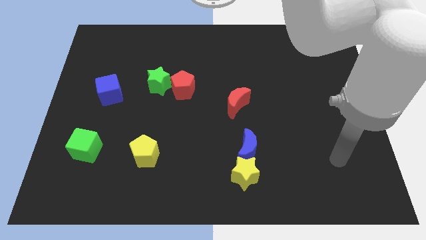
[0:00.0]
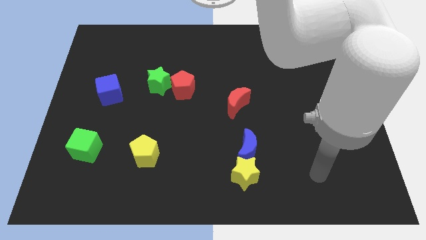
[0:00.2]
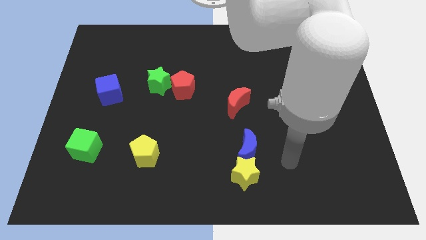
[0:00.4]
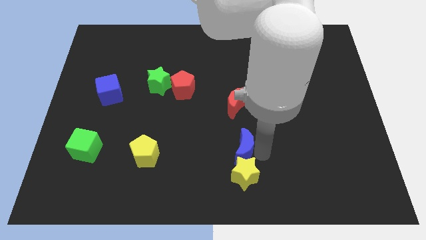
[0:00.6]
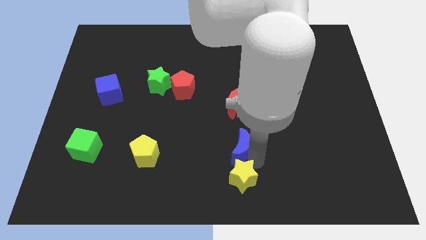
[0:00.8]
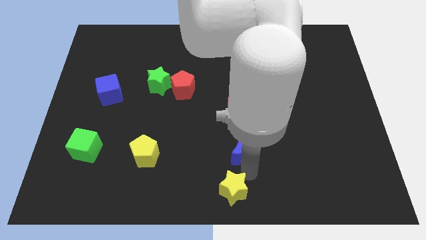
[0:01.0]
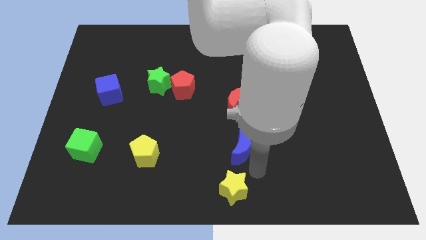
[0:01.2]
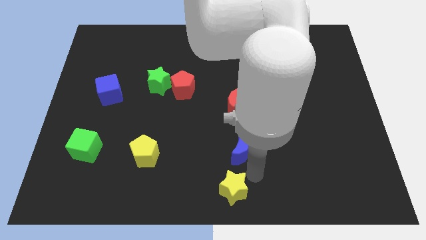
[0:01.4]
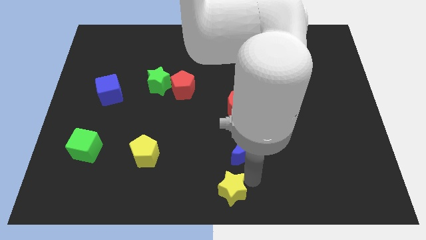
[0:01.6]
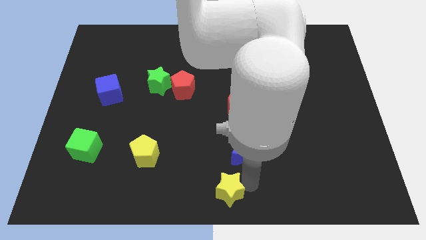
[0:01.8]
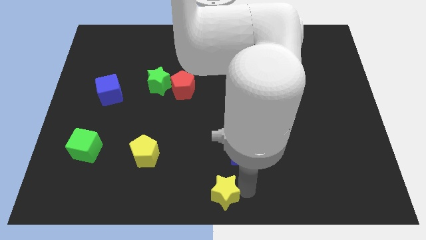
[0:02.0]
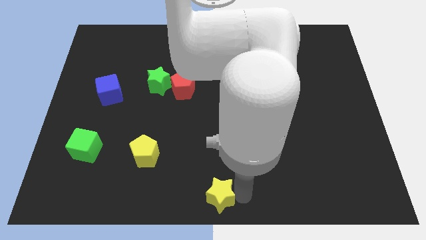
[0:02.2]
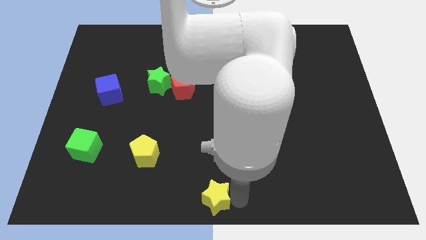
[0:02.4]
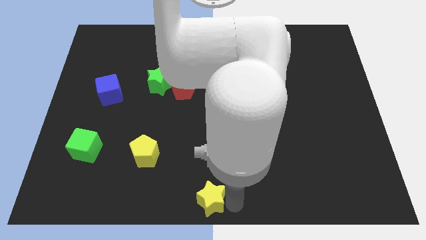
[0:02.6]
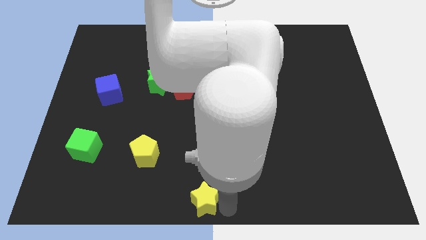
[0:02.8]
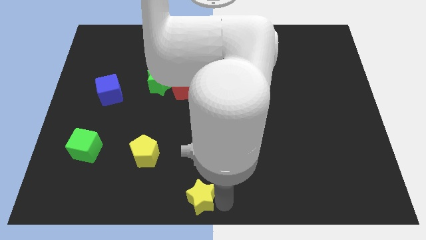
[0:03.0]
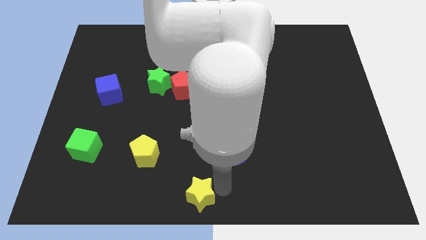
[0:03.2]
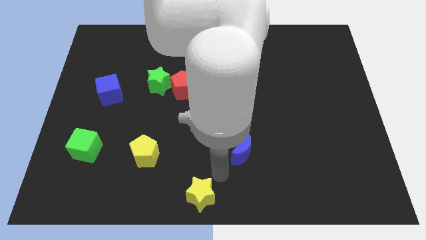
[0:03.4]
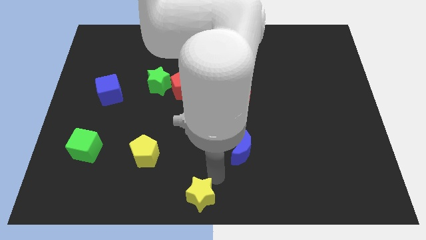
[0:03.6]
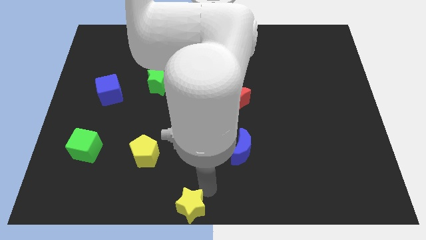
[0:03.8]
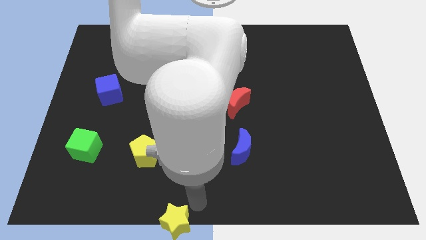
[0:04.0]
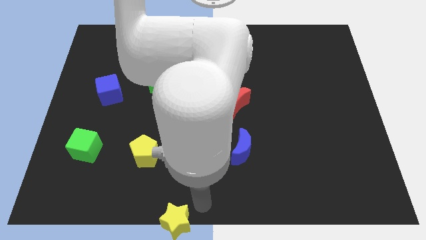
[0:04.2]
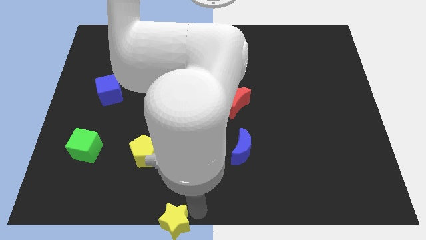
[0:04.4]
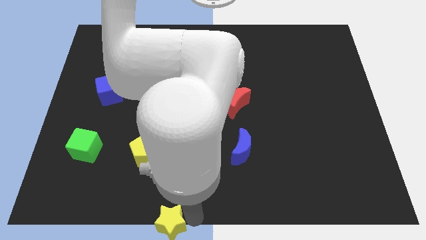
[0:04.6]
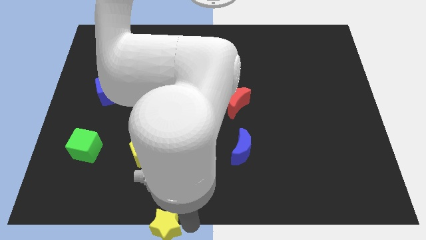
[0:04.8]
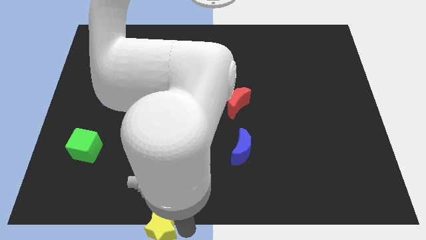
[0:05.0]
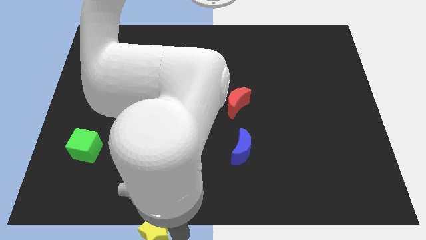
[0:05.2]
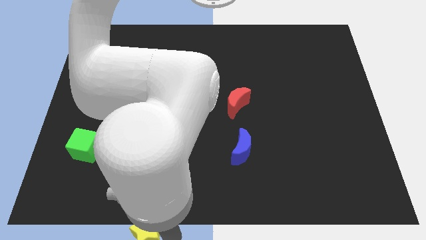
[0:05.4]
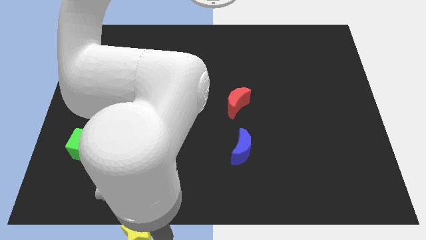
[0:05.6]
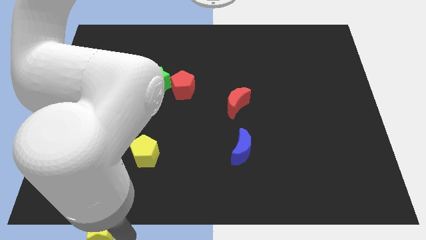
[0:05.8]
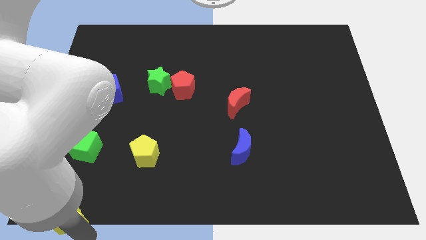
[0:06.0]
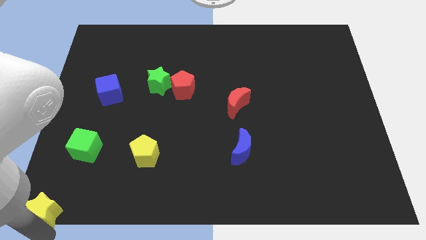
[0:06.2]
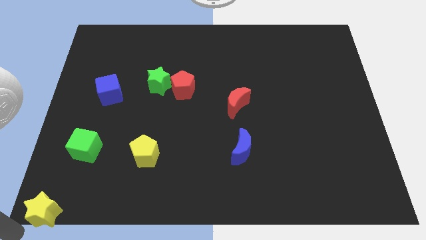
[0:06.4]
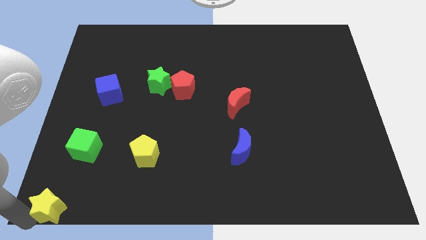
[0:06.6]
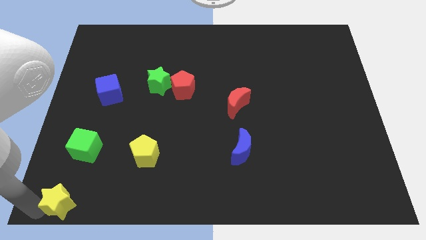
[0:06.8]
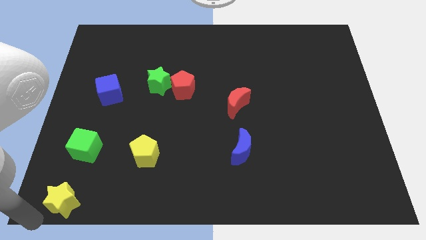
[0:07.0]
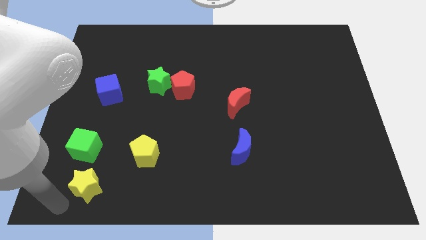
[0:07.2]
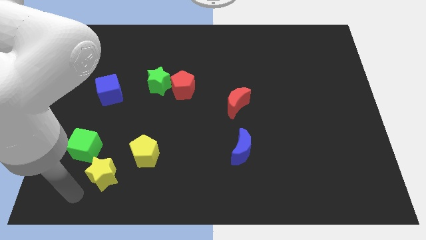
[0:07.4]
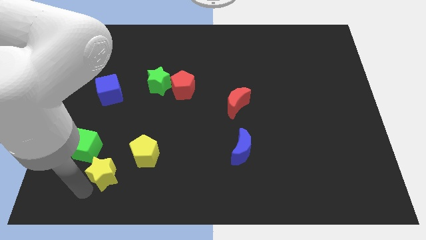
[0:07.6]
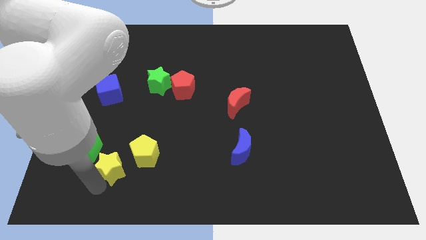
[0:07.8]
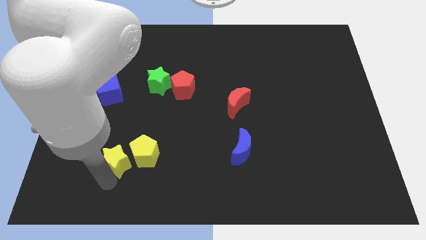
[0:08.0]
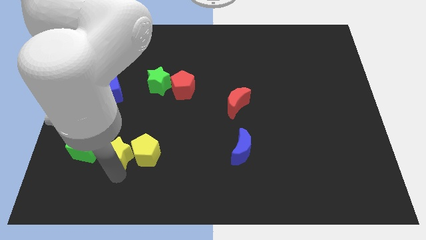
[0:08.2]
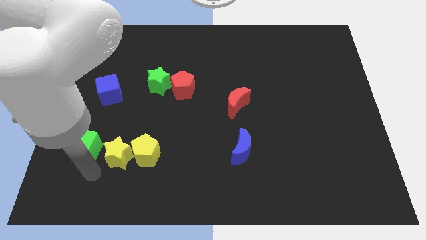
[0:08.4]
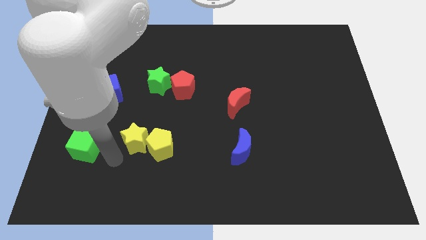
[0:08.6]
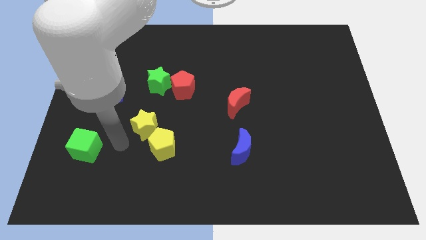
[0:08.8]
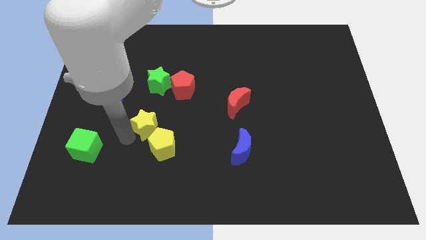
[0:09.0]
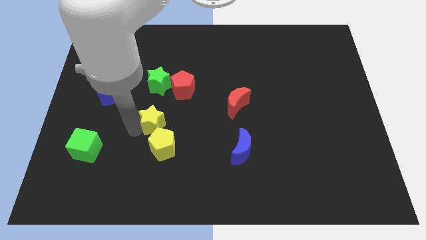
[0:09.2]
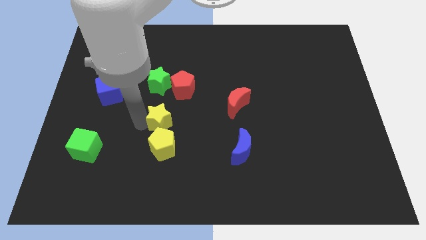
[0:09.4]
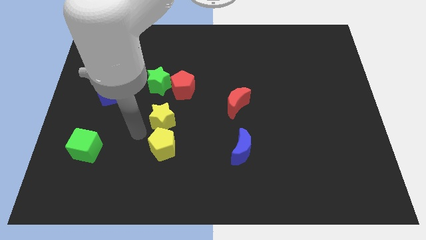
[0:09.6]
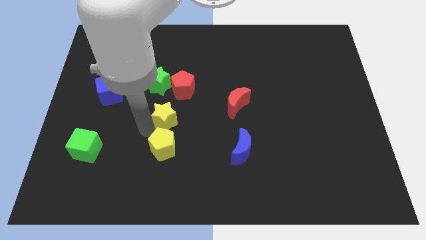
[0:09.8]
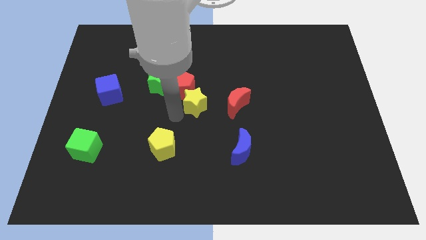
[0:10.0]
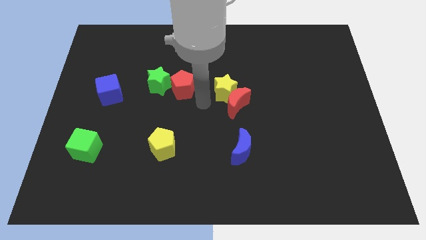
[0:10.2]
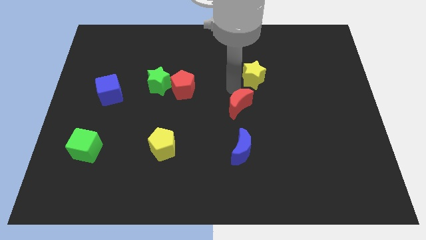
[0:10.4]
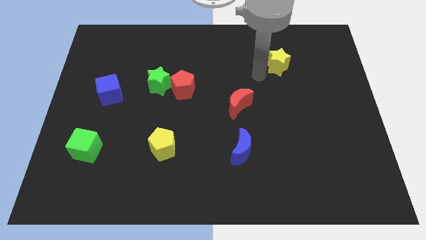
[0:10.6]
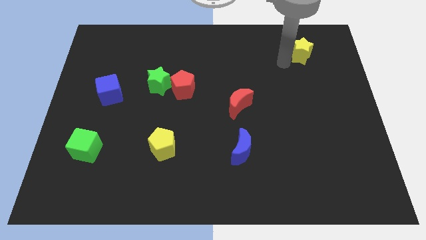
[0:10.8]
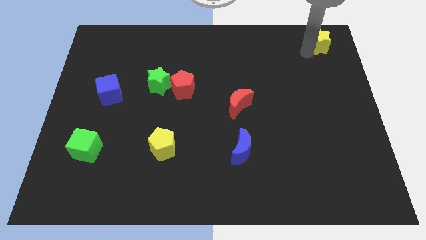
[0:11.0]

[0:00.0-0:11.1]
move the yellow star to the top right of the board

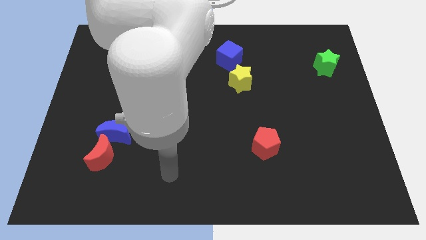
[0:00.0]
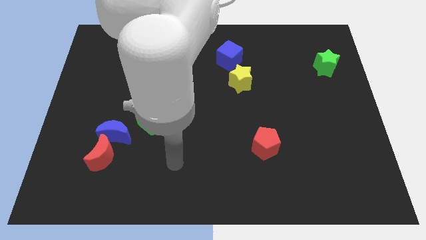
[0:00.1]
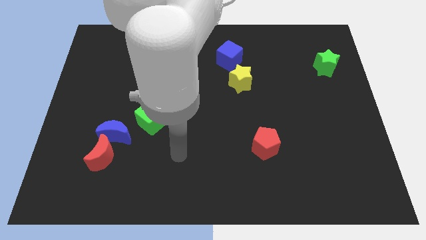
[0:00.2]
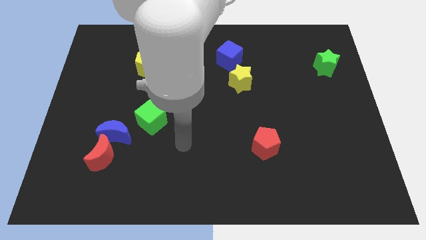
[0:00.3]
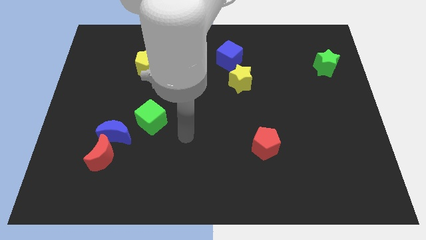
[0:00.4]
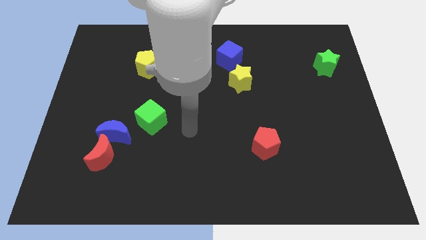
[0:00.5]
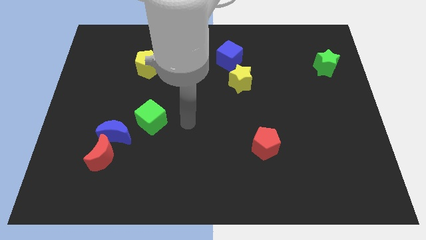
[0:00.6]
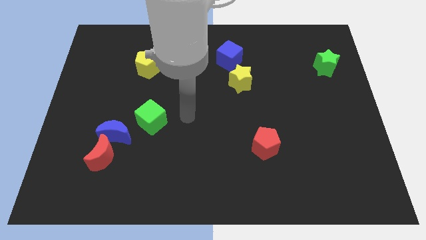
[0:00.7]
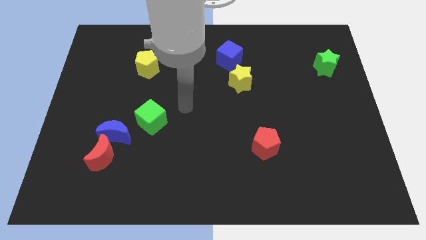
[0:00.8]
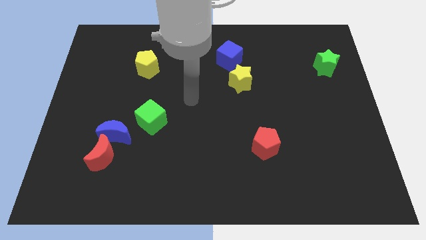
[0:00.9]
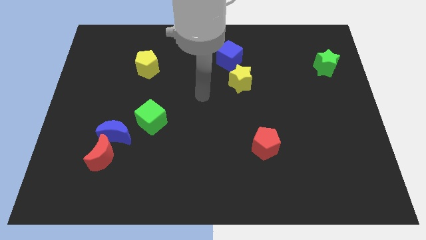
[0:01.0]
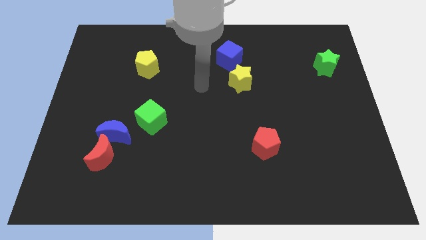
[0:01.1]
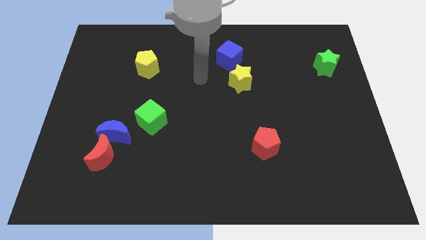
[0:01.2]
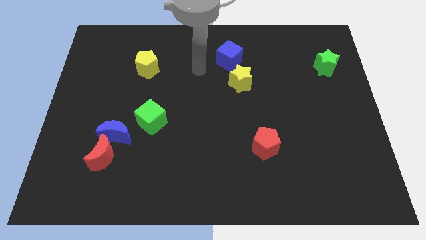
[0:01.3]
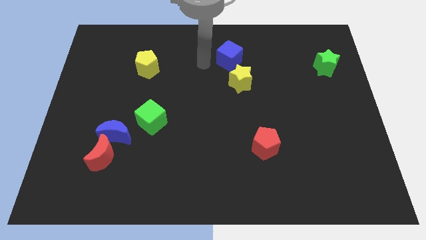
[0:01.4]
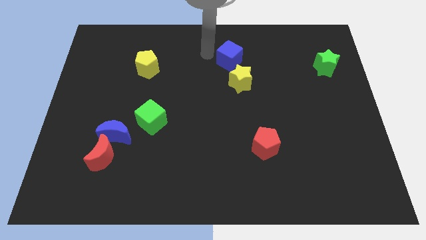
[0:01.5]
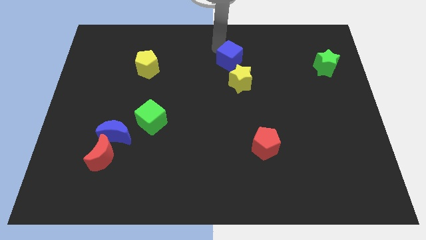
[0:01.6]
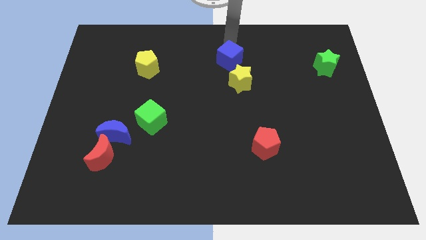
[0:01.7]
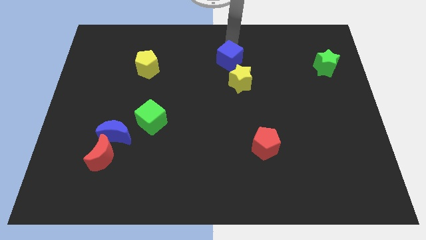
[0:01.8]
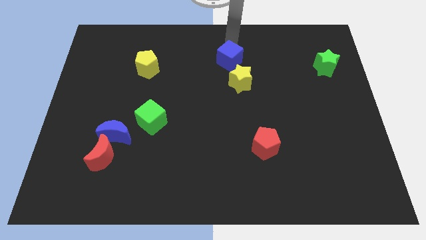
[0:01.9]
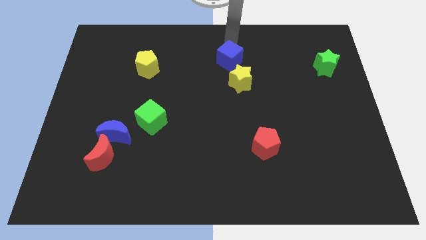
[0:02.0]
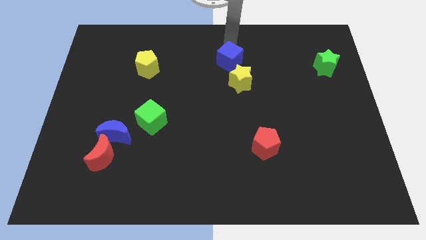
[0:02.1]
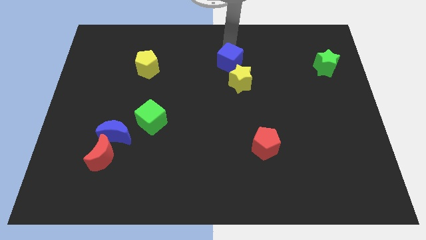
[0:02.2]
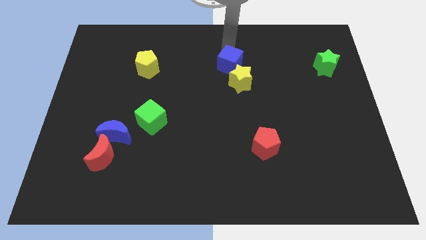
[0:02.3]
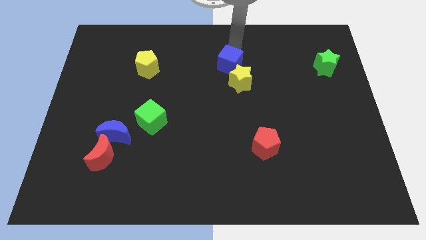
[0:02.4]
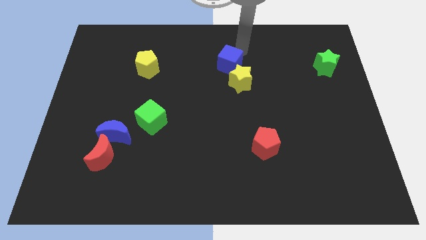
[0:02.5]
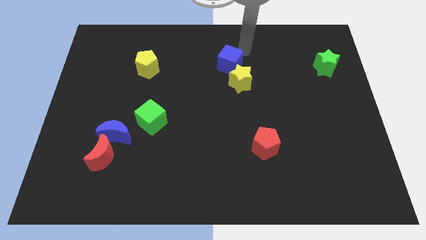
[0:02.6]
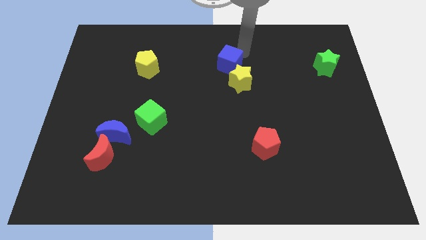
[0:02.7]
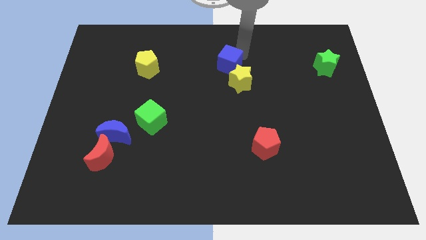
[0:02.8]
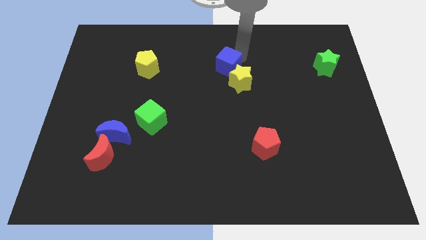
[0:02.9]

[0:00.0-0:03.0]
push the blue cube to the middle of the board
